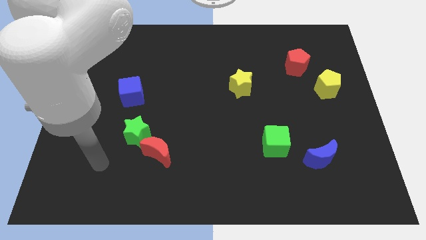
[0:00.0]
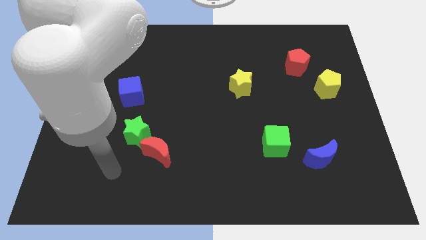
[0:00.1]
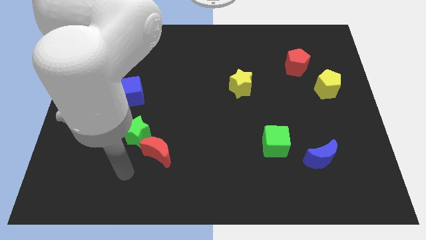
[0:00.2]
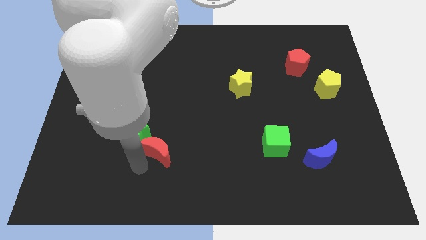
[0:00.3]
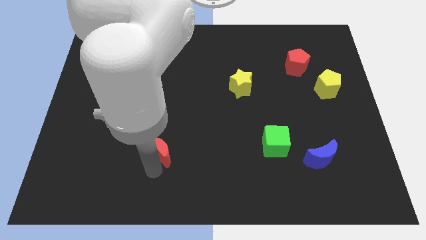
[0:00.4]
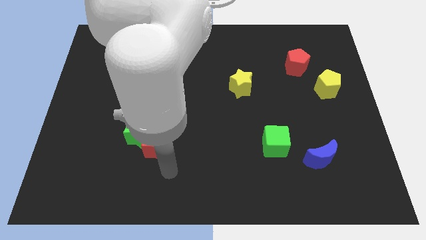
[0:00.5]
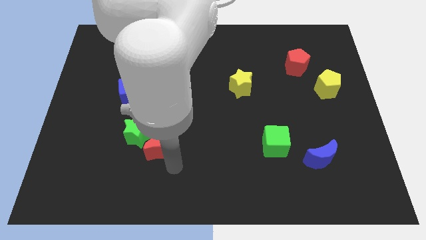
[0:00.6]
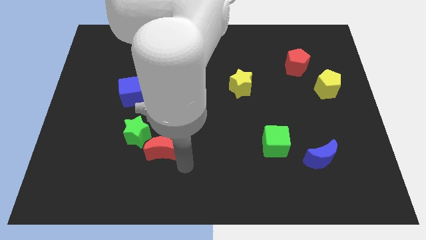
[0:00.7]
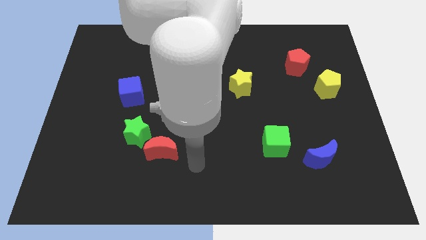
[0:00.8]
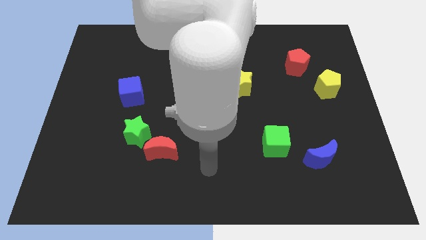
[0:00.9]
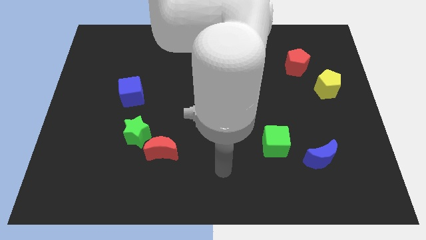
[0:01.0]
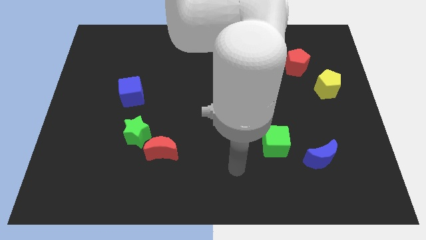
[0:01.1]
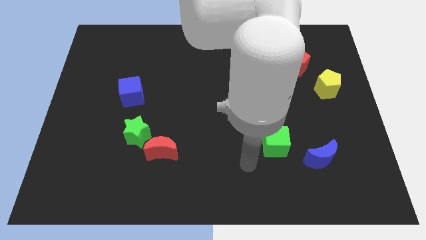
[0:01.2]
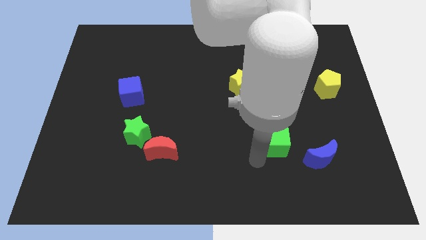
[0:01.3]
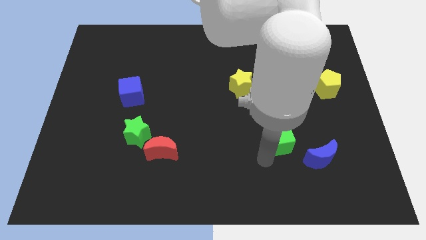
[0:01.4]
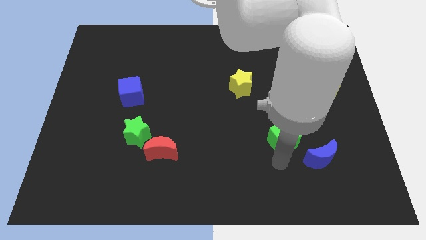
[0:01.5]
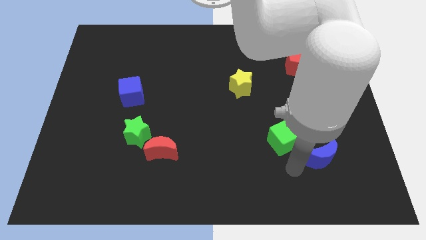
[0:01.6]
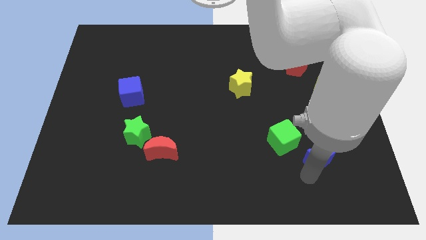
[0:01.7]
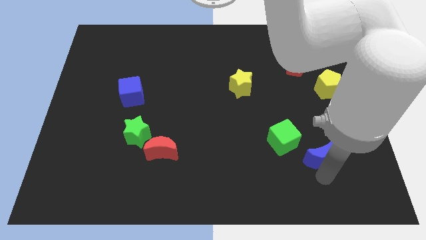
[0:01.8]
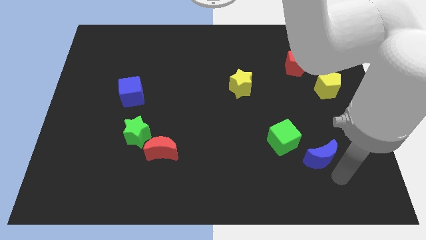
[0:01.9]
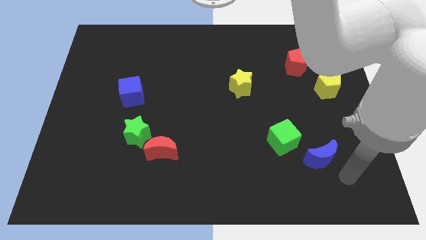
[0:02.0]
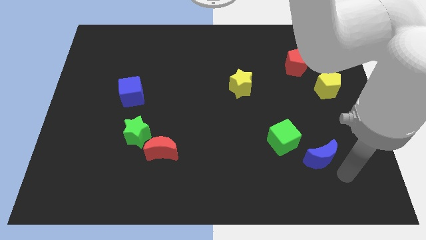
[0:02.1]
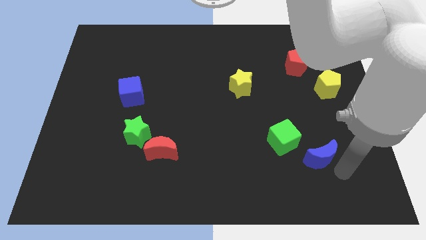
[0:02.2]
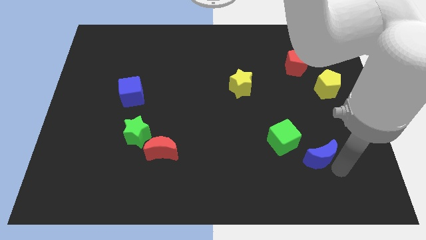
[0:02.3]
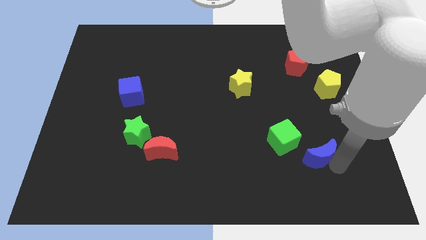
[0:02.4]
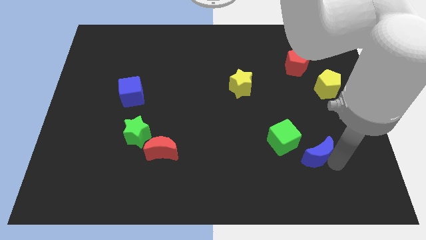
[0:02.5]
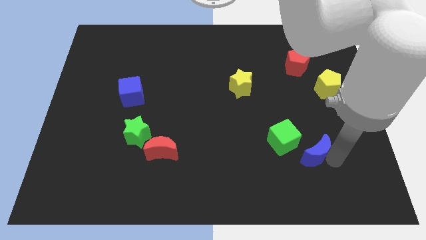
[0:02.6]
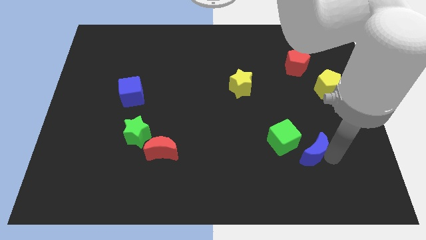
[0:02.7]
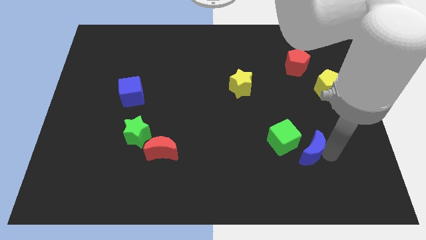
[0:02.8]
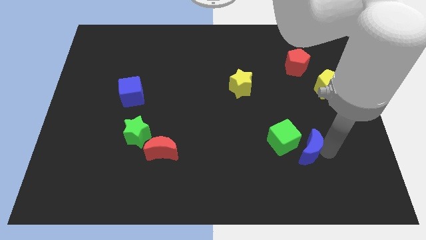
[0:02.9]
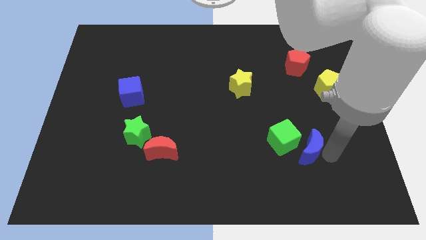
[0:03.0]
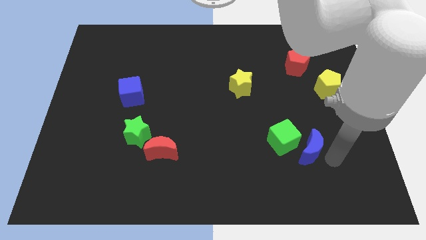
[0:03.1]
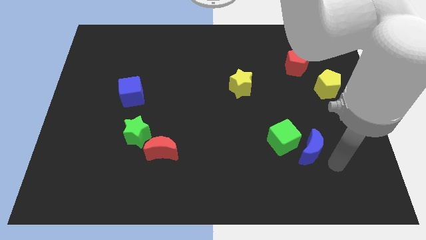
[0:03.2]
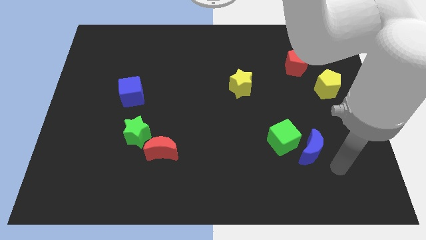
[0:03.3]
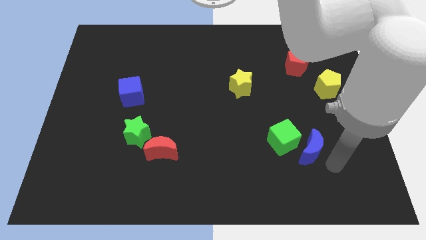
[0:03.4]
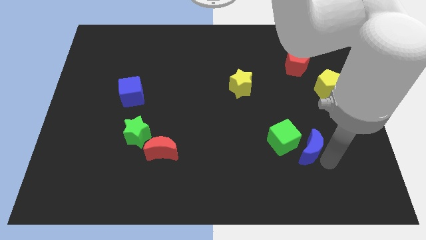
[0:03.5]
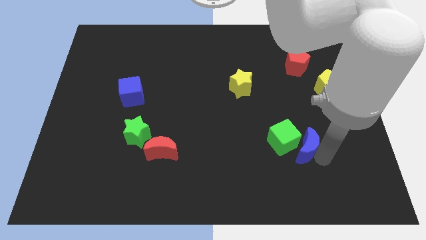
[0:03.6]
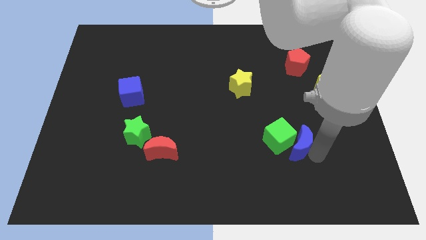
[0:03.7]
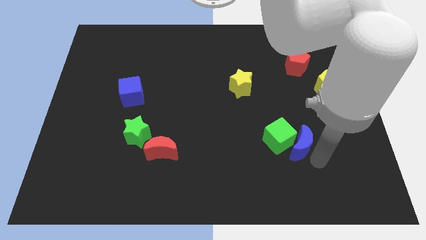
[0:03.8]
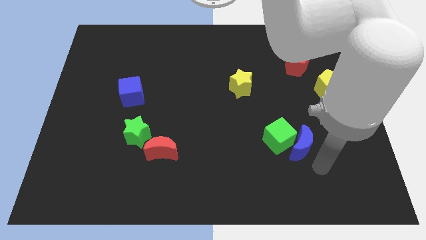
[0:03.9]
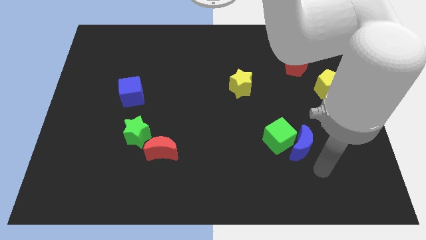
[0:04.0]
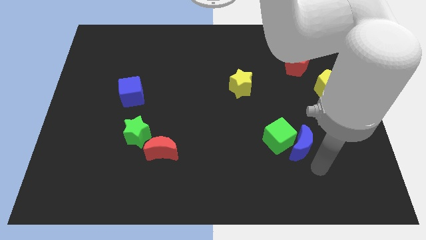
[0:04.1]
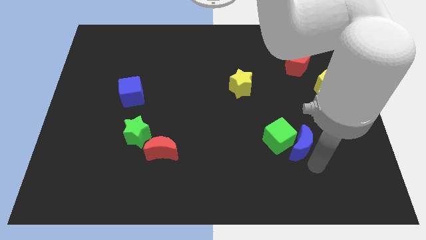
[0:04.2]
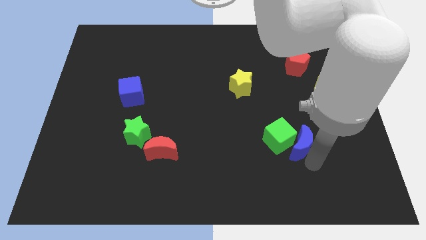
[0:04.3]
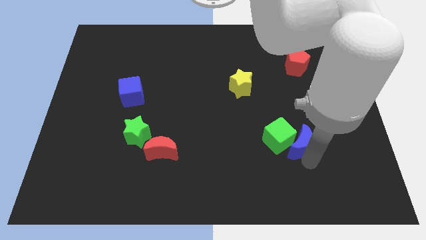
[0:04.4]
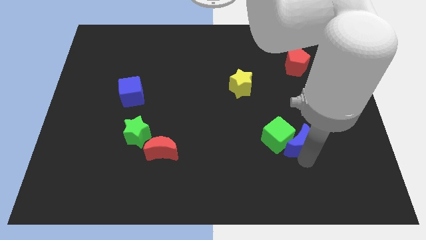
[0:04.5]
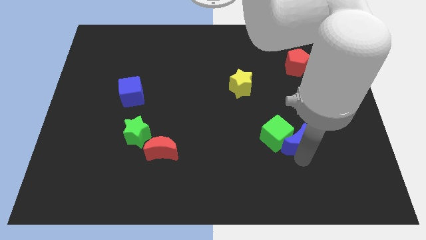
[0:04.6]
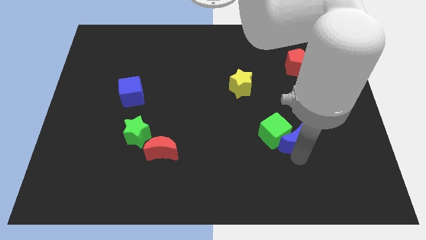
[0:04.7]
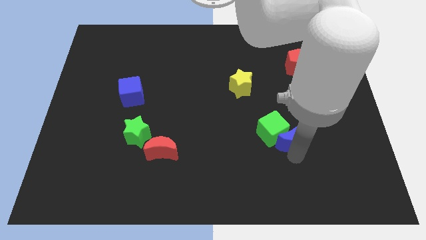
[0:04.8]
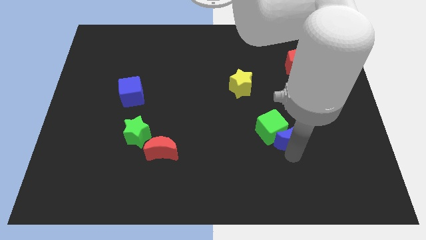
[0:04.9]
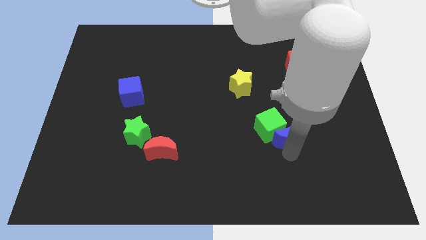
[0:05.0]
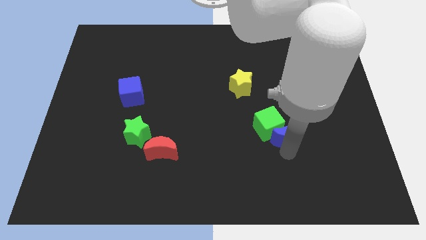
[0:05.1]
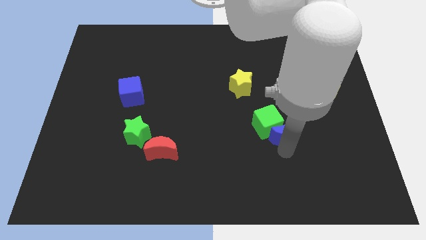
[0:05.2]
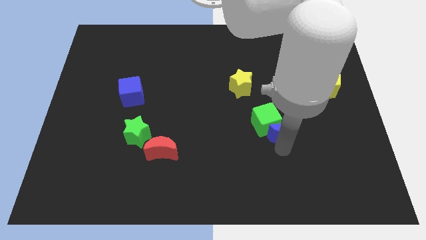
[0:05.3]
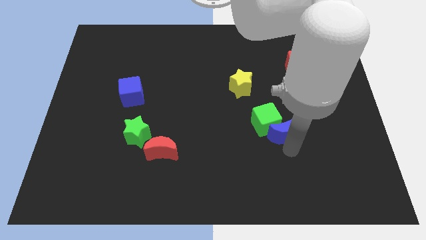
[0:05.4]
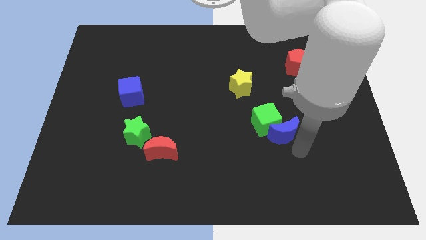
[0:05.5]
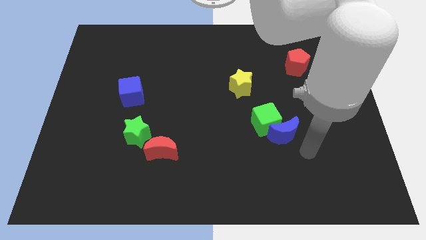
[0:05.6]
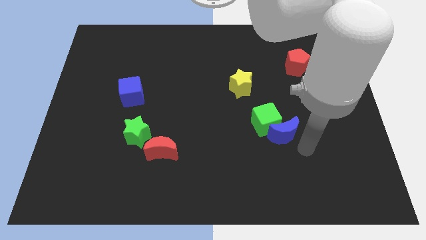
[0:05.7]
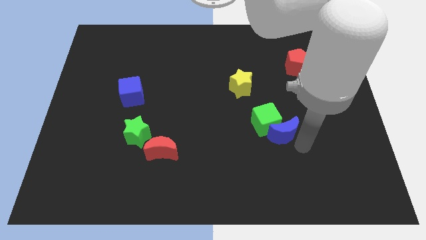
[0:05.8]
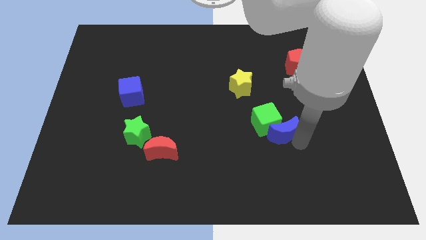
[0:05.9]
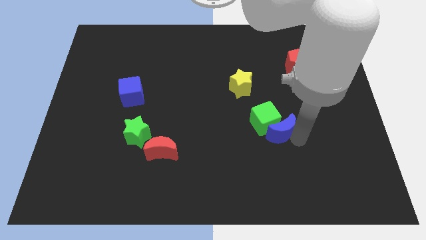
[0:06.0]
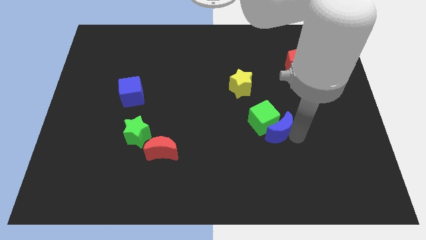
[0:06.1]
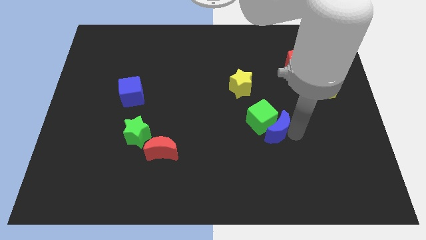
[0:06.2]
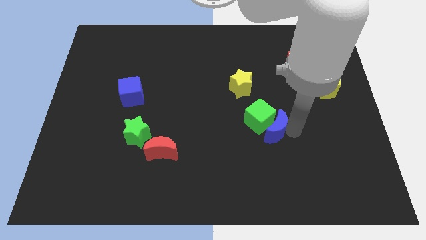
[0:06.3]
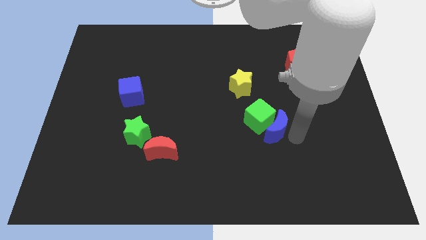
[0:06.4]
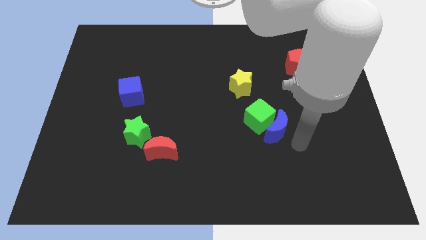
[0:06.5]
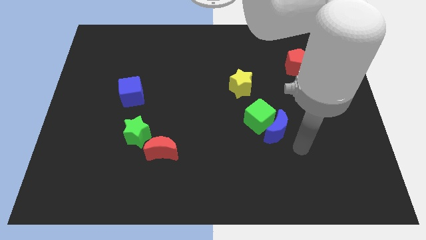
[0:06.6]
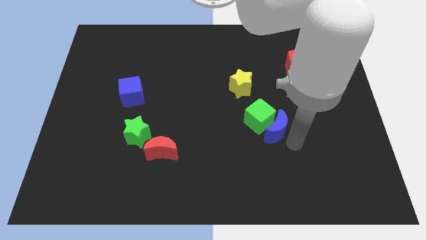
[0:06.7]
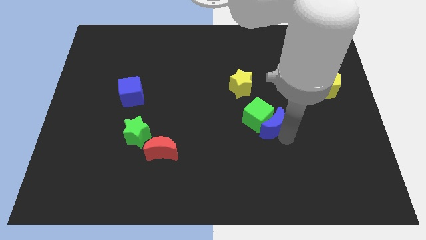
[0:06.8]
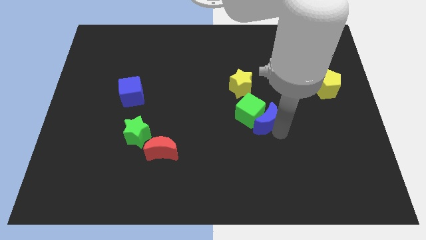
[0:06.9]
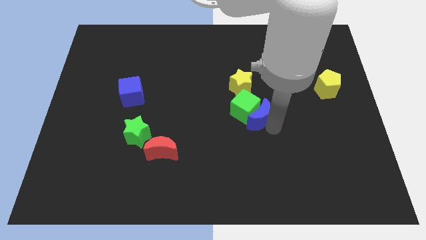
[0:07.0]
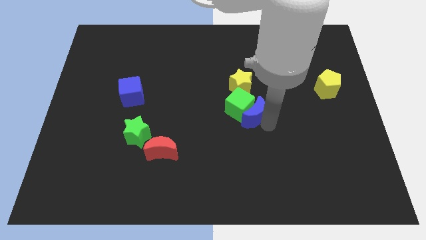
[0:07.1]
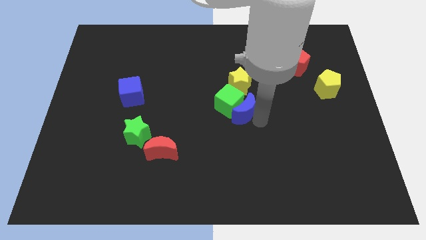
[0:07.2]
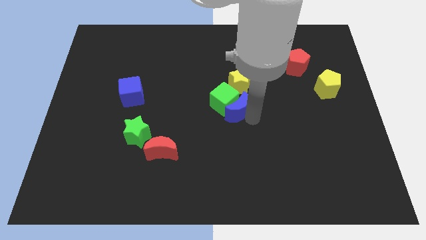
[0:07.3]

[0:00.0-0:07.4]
slide the blue moon upwards and to the left

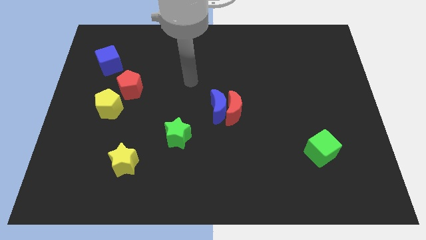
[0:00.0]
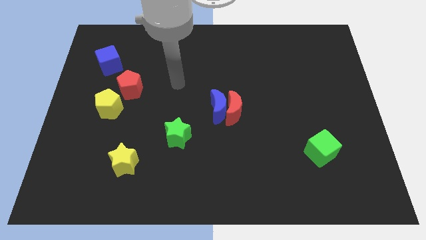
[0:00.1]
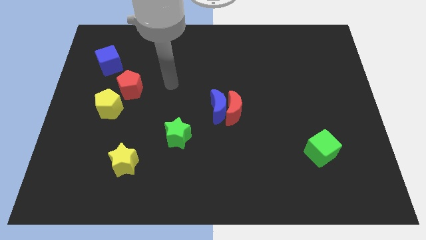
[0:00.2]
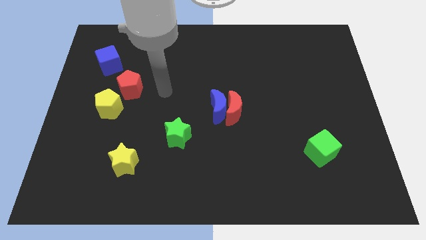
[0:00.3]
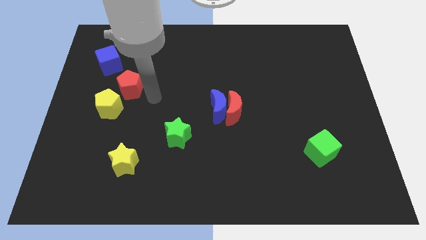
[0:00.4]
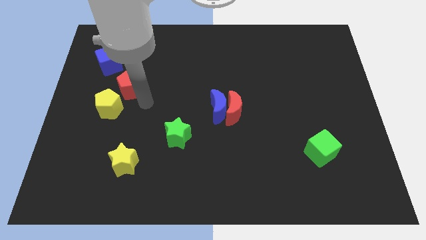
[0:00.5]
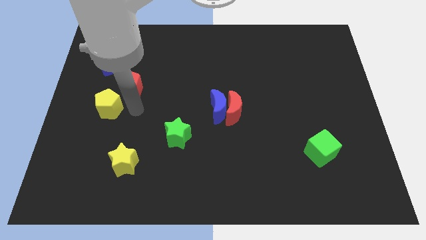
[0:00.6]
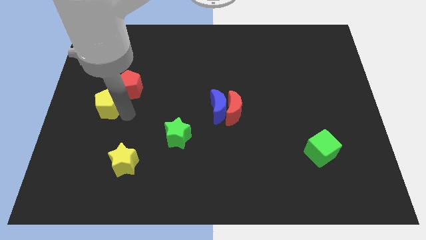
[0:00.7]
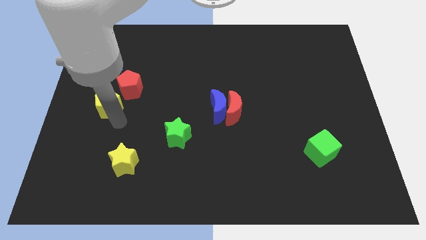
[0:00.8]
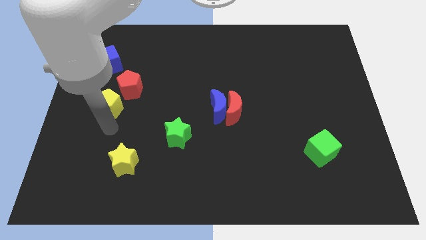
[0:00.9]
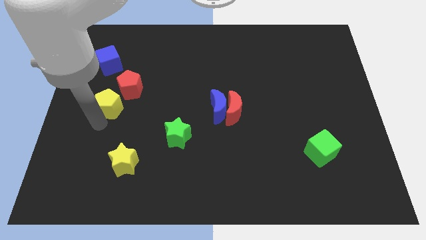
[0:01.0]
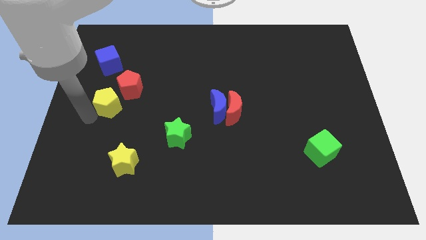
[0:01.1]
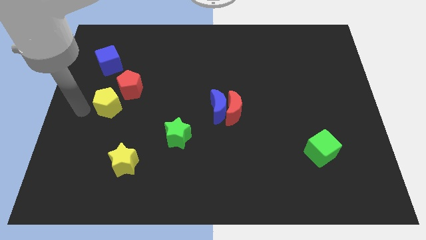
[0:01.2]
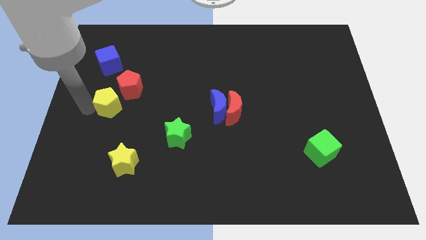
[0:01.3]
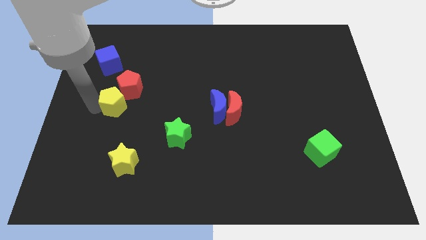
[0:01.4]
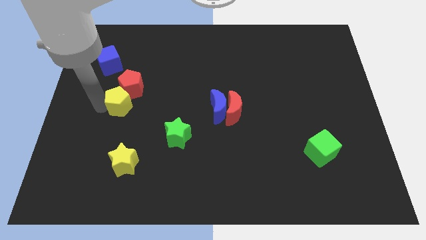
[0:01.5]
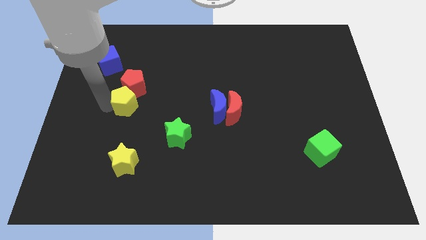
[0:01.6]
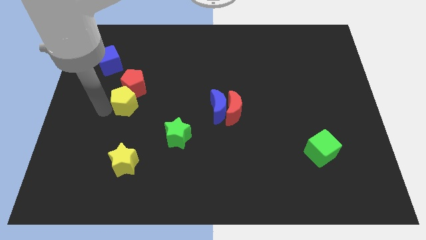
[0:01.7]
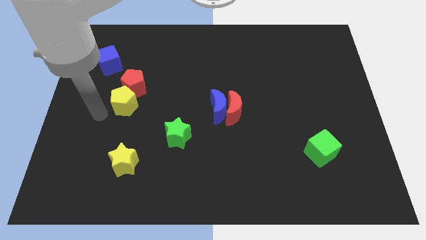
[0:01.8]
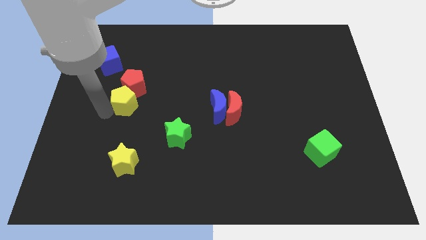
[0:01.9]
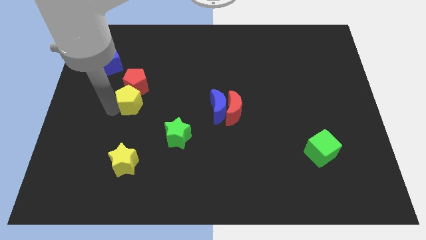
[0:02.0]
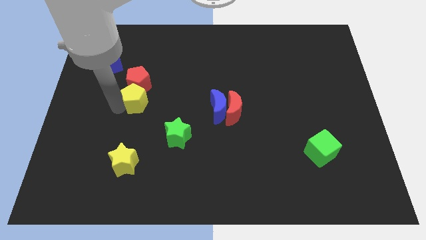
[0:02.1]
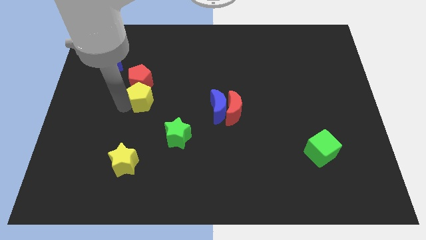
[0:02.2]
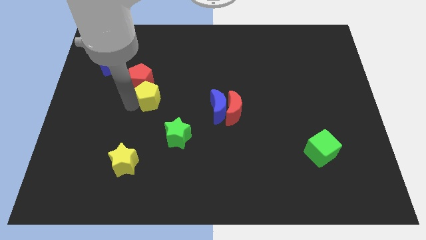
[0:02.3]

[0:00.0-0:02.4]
move the yellow pentagon a bit upwards and right diagonally
